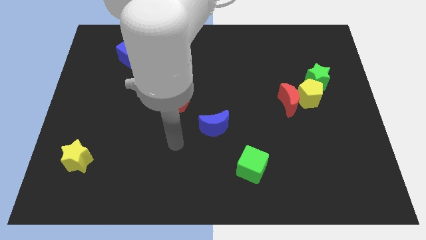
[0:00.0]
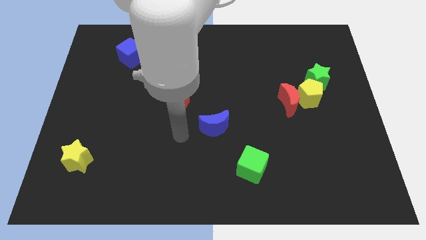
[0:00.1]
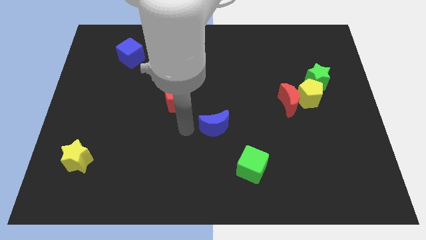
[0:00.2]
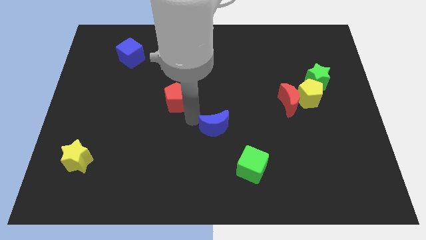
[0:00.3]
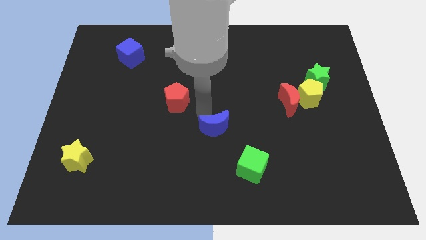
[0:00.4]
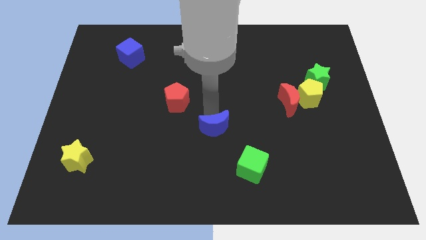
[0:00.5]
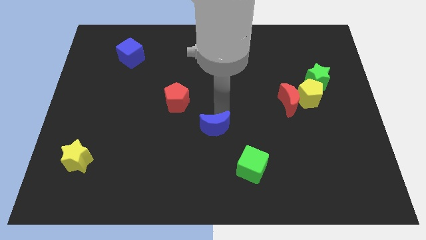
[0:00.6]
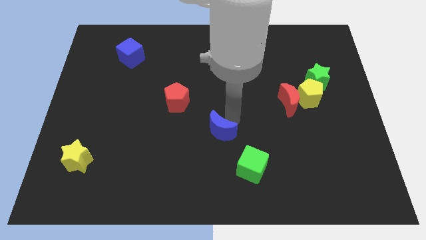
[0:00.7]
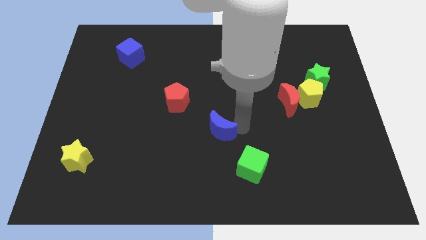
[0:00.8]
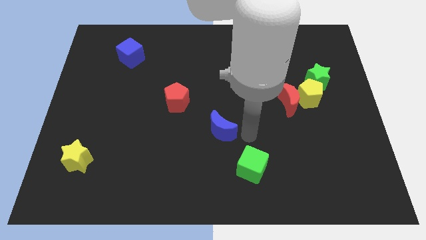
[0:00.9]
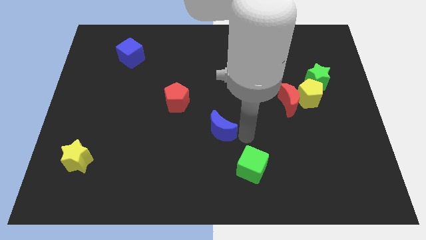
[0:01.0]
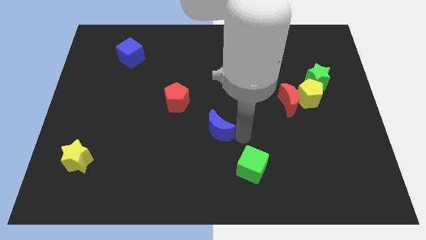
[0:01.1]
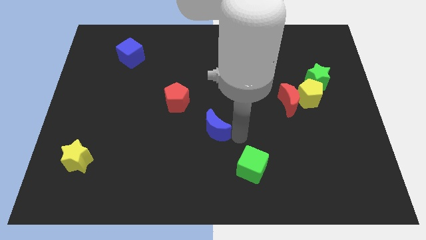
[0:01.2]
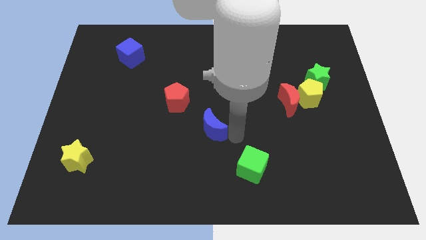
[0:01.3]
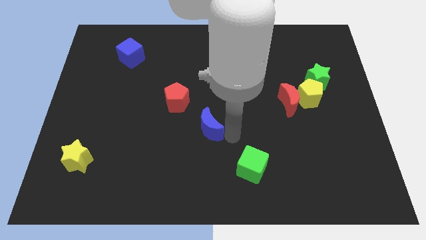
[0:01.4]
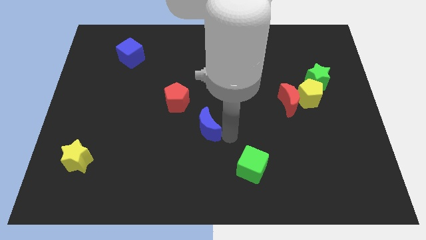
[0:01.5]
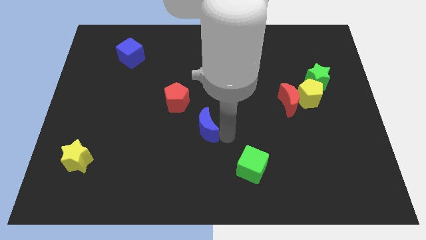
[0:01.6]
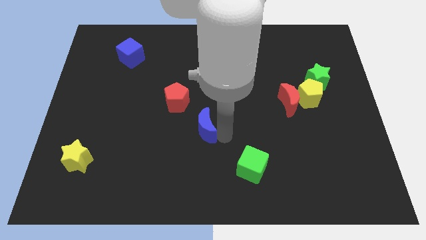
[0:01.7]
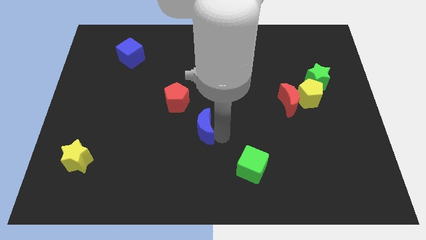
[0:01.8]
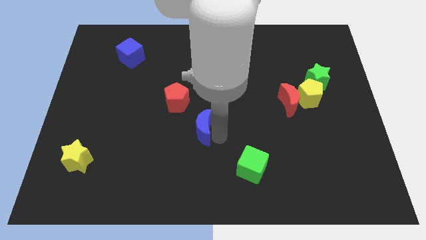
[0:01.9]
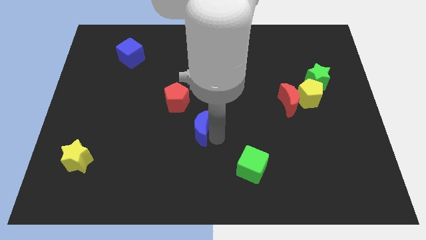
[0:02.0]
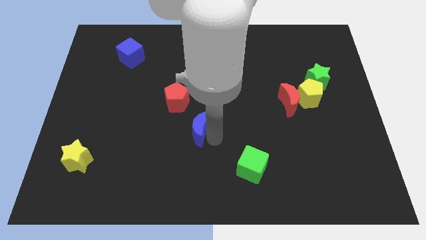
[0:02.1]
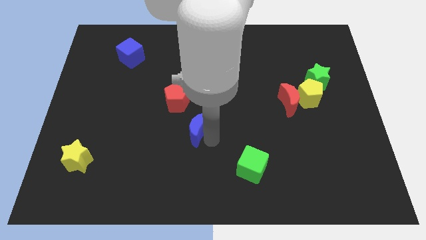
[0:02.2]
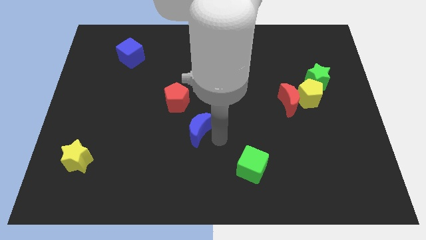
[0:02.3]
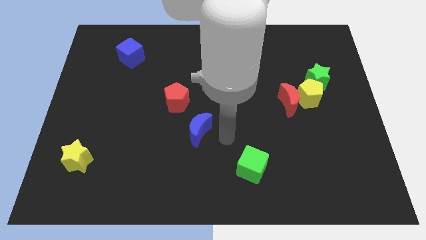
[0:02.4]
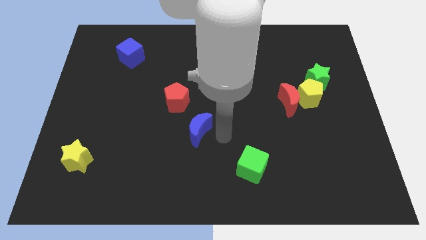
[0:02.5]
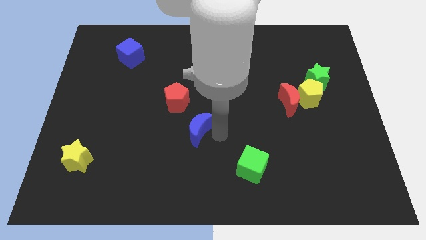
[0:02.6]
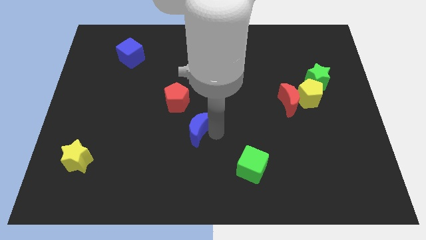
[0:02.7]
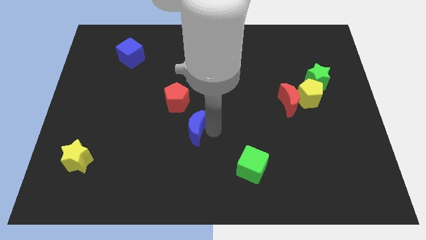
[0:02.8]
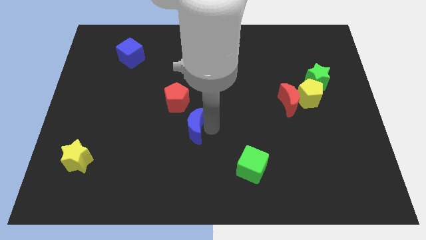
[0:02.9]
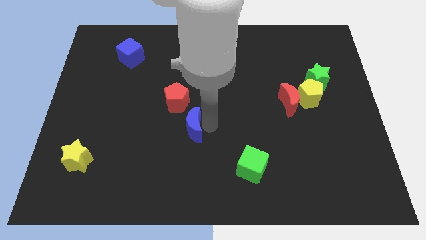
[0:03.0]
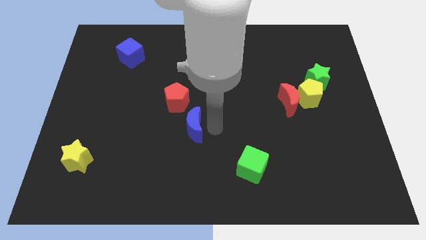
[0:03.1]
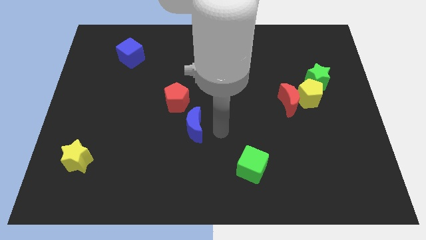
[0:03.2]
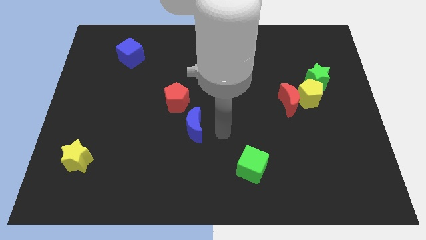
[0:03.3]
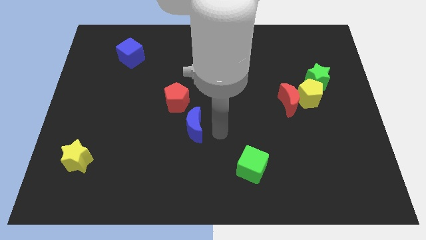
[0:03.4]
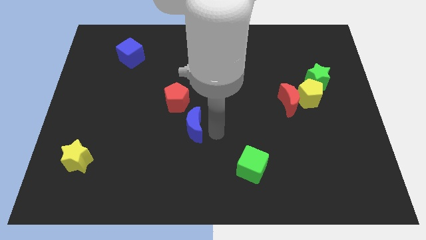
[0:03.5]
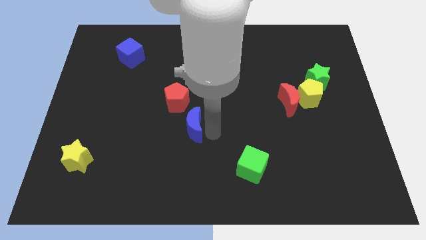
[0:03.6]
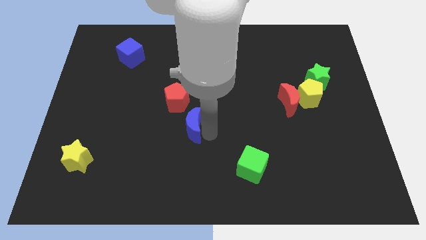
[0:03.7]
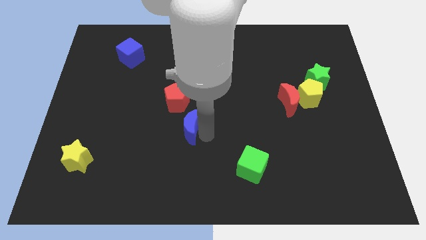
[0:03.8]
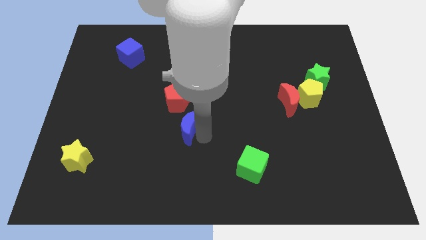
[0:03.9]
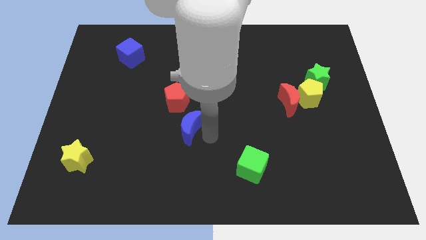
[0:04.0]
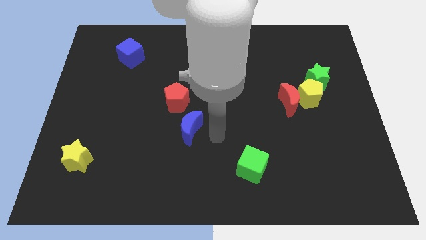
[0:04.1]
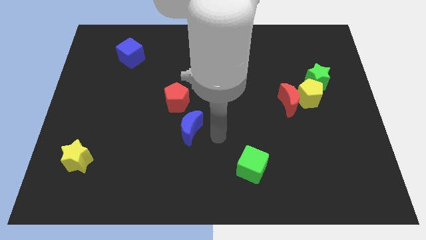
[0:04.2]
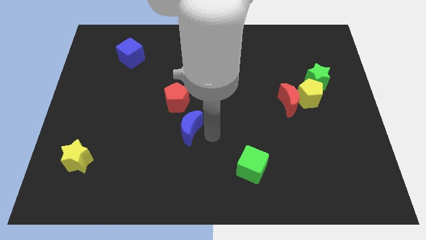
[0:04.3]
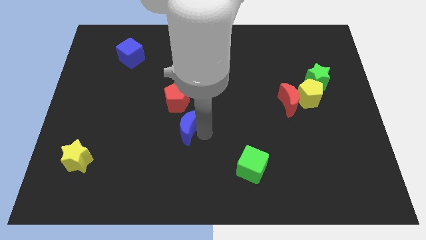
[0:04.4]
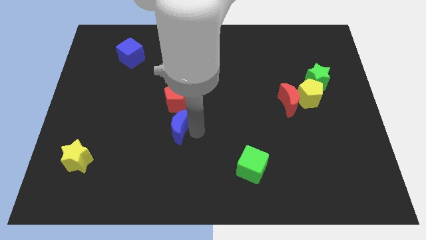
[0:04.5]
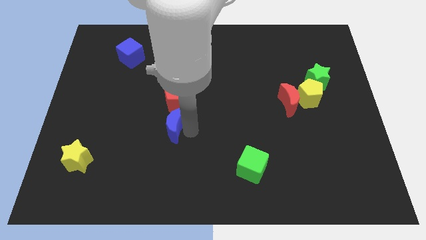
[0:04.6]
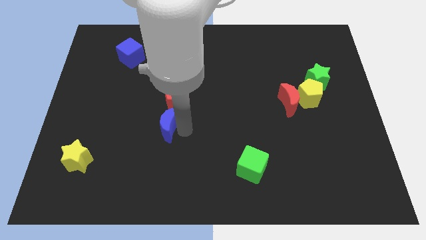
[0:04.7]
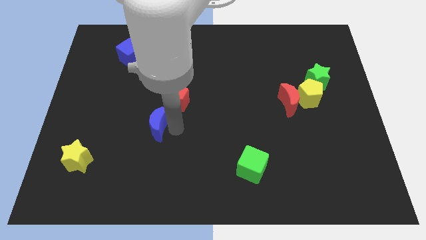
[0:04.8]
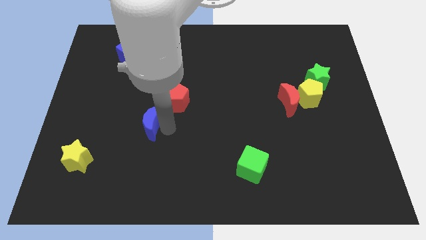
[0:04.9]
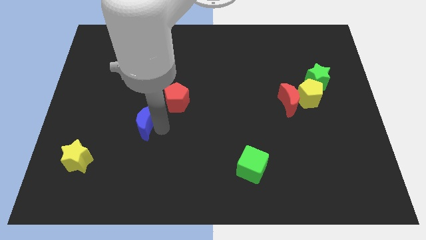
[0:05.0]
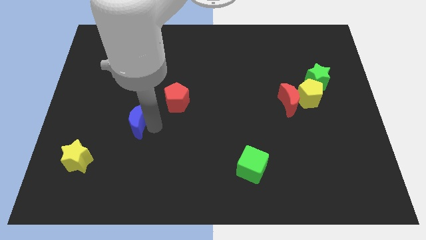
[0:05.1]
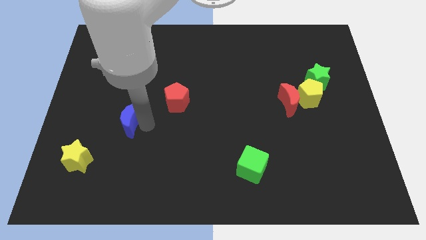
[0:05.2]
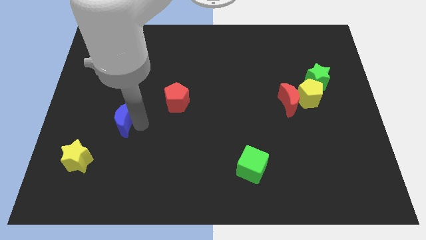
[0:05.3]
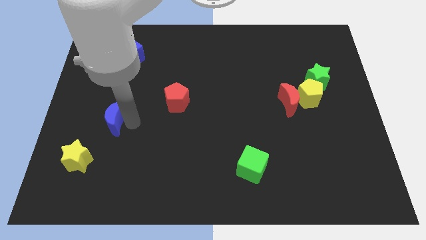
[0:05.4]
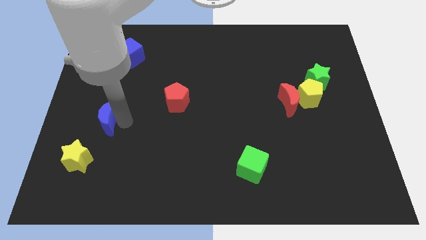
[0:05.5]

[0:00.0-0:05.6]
move the blue moon to the top side of the yellow star

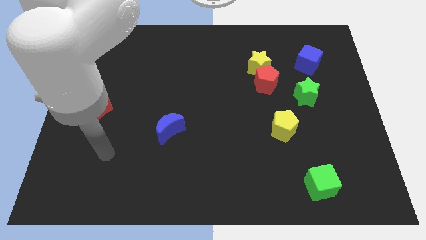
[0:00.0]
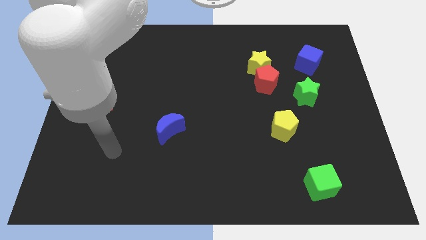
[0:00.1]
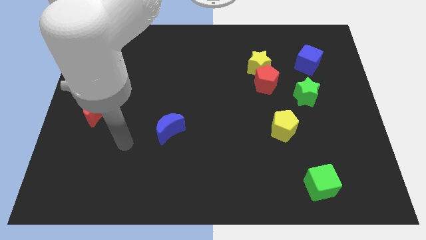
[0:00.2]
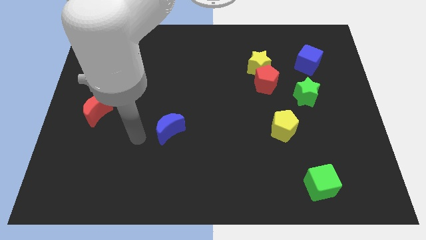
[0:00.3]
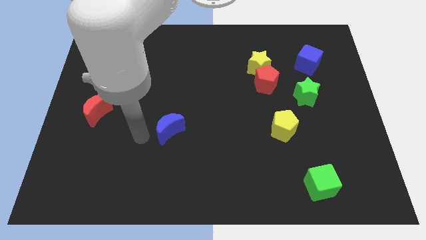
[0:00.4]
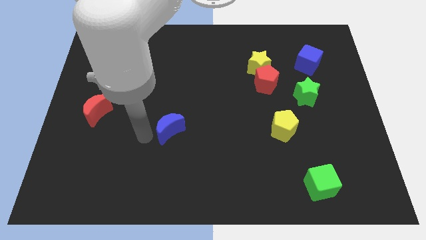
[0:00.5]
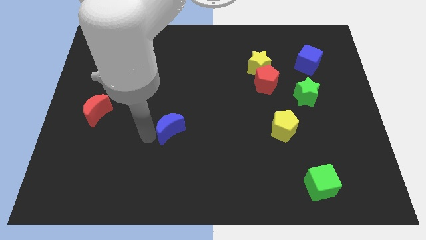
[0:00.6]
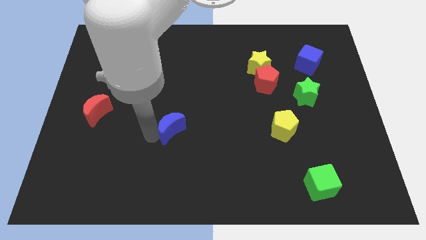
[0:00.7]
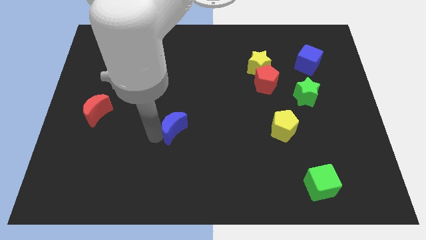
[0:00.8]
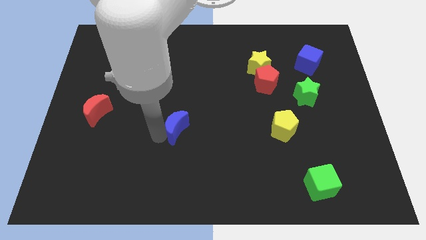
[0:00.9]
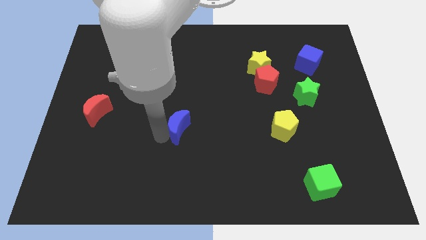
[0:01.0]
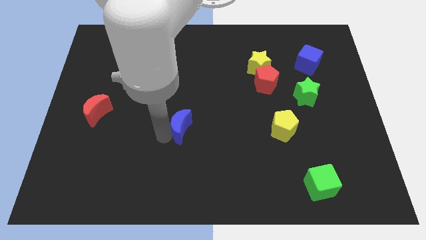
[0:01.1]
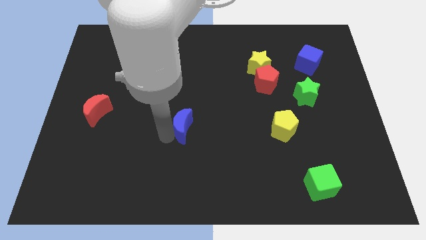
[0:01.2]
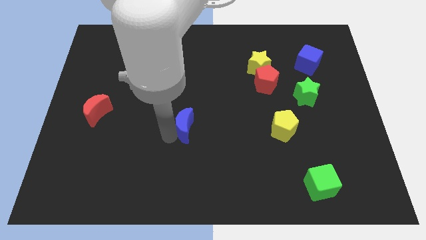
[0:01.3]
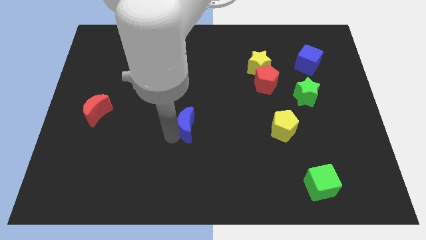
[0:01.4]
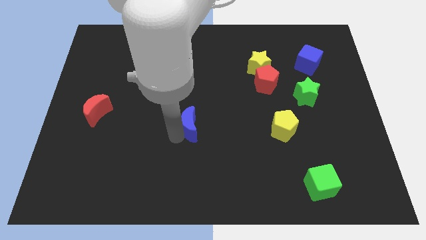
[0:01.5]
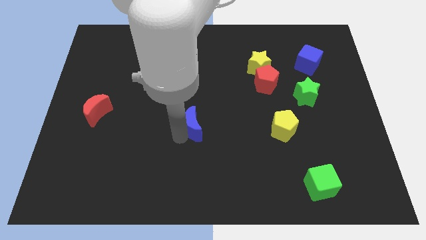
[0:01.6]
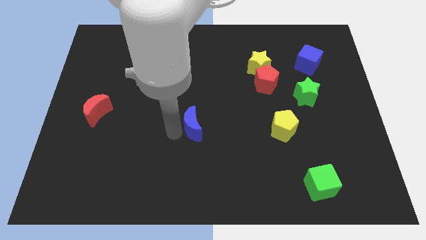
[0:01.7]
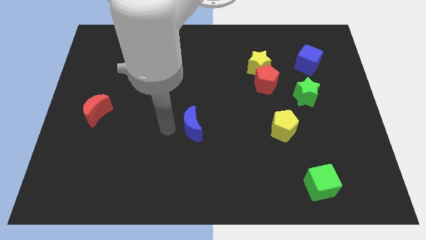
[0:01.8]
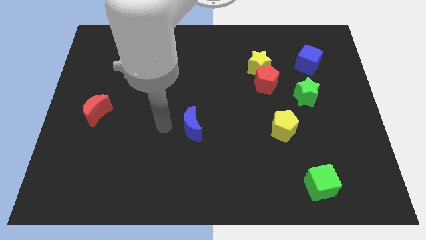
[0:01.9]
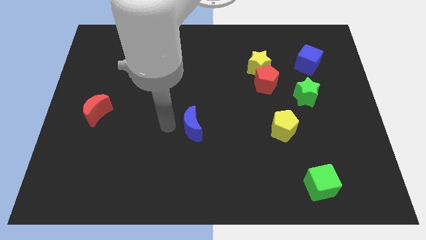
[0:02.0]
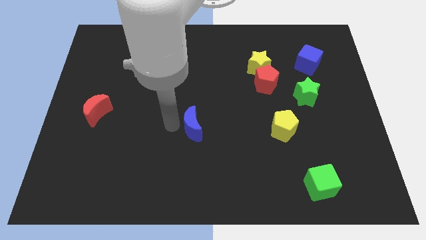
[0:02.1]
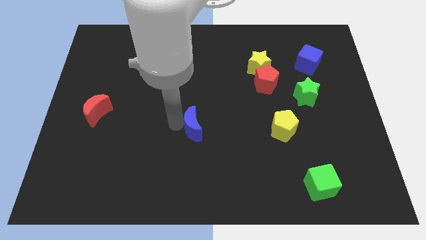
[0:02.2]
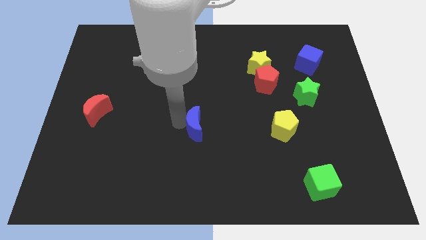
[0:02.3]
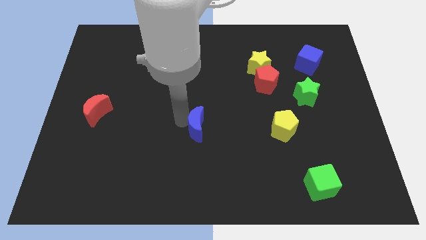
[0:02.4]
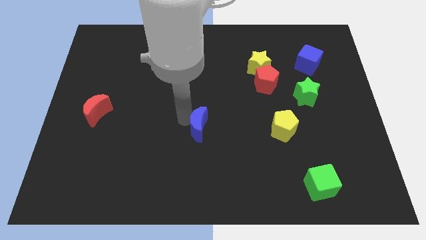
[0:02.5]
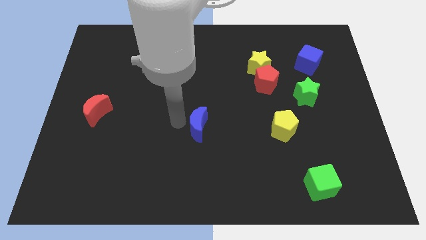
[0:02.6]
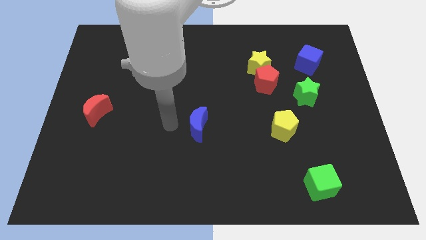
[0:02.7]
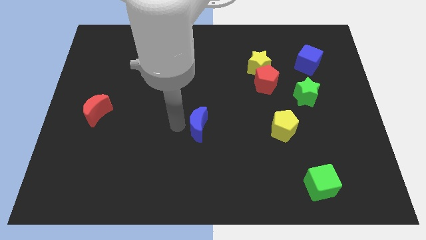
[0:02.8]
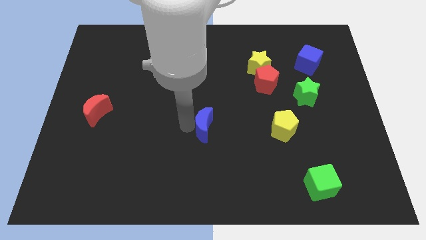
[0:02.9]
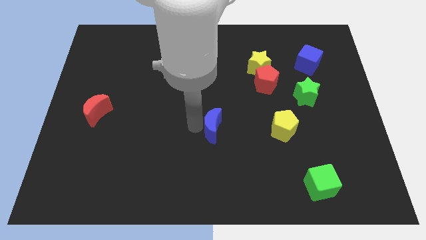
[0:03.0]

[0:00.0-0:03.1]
slide the blue moon to the left of the yellow pentagon
